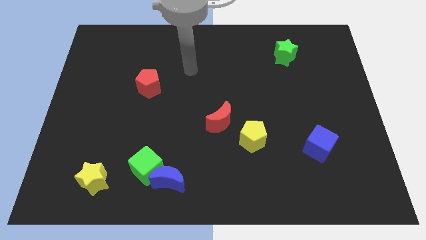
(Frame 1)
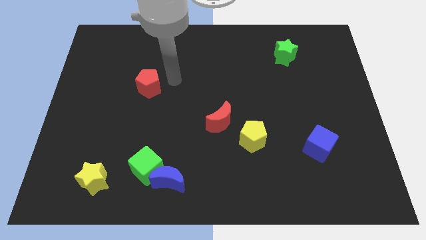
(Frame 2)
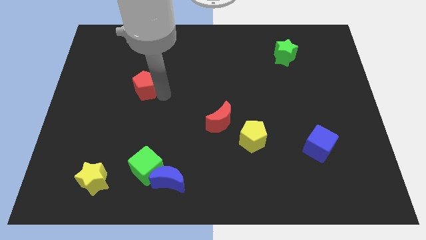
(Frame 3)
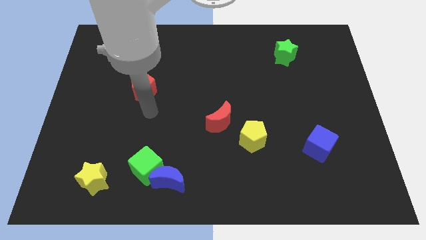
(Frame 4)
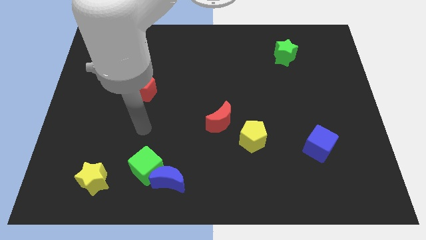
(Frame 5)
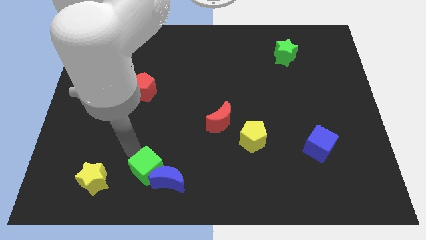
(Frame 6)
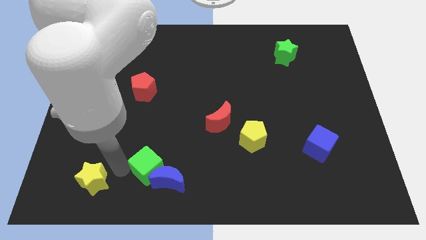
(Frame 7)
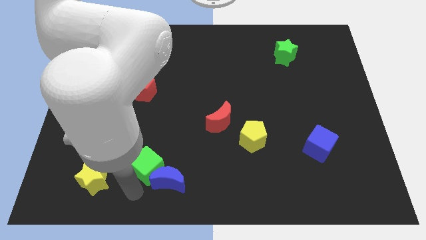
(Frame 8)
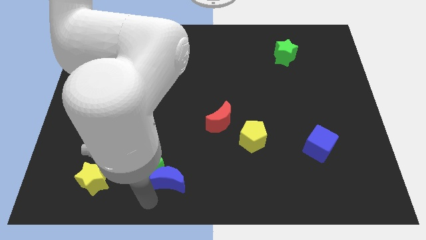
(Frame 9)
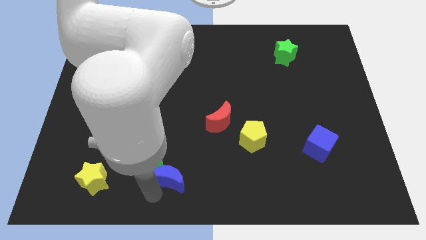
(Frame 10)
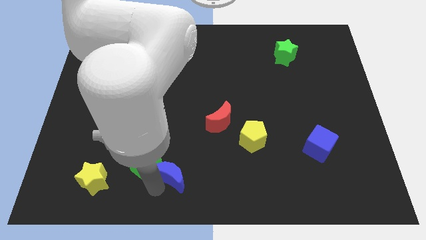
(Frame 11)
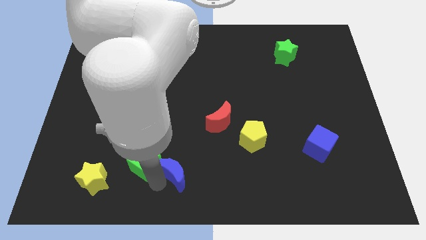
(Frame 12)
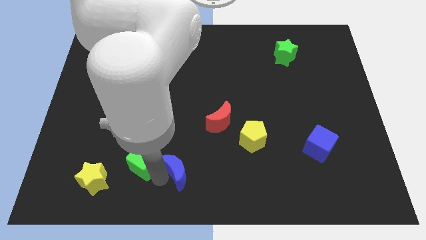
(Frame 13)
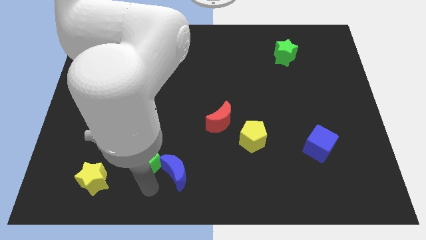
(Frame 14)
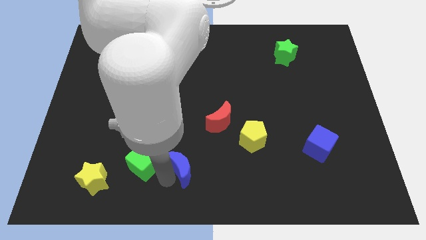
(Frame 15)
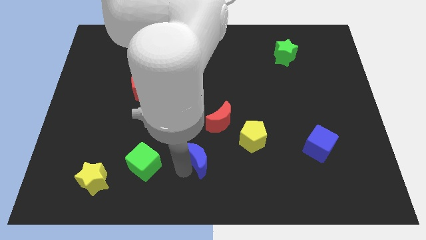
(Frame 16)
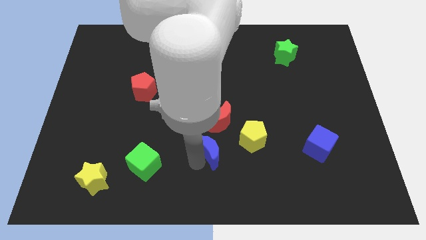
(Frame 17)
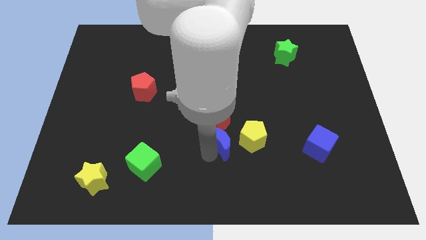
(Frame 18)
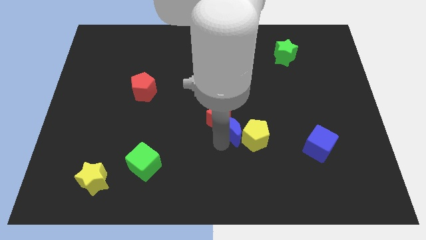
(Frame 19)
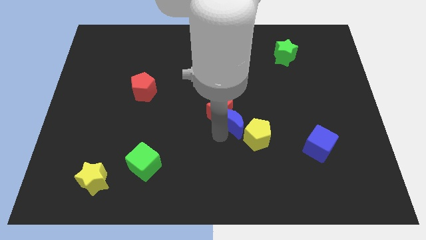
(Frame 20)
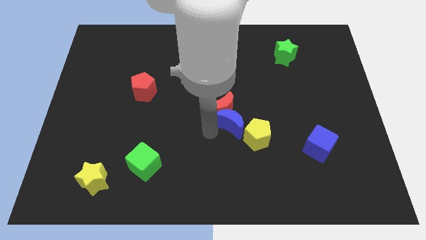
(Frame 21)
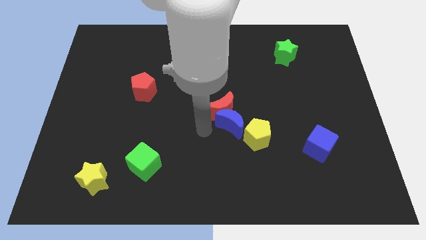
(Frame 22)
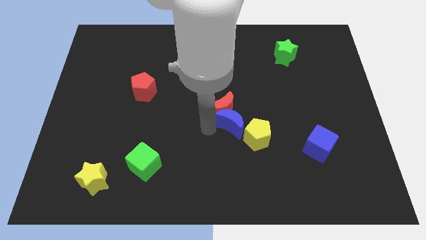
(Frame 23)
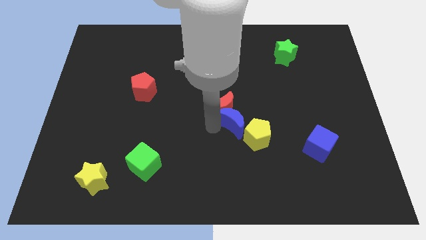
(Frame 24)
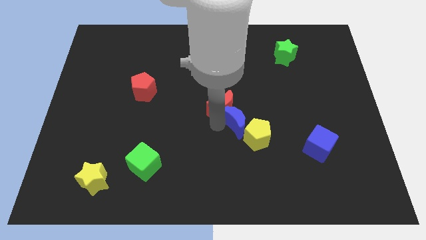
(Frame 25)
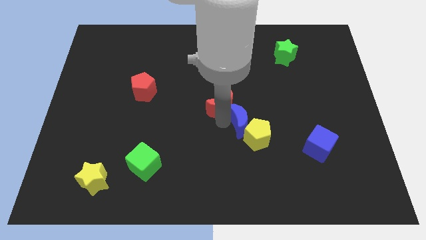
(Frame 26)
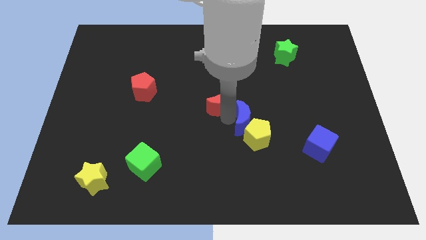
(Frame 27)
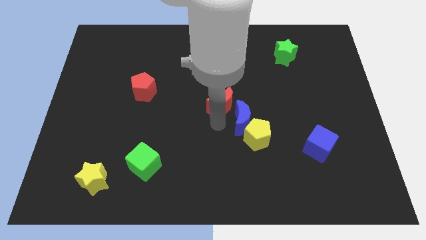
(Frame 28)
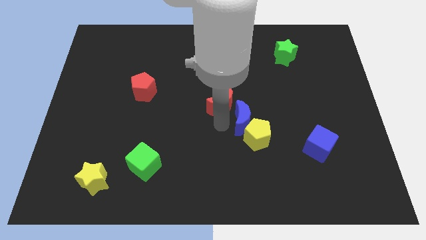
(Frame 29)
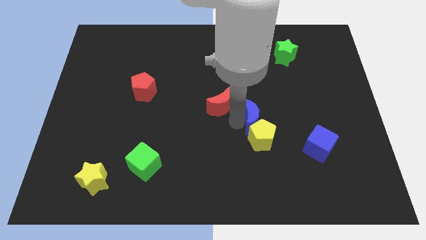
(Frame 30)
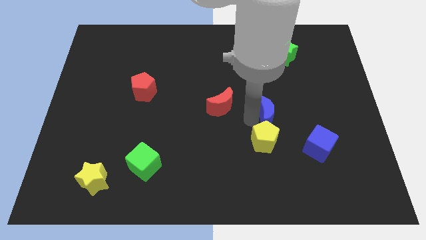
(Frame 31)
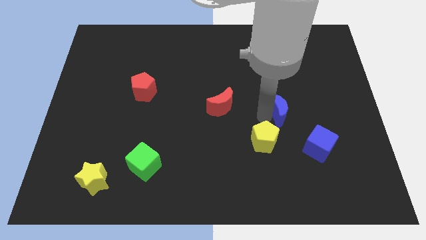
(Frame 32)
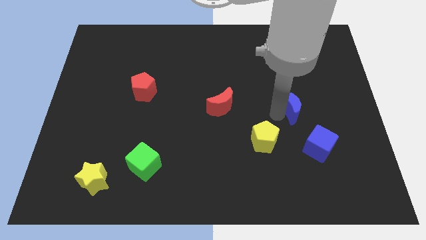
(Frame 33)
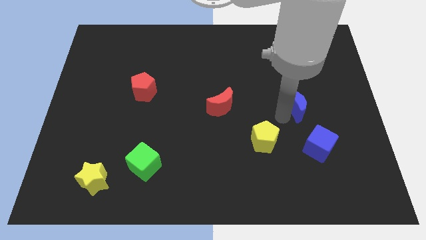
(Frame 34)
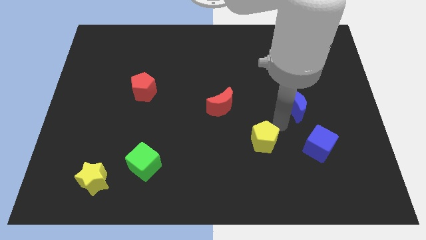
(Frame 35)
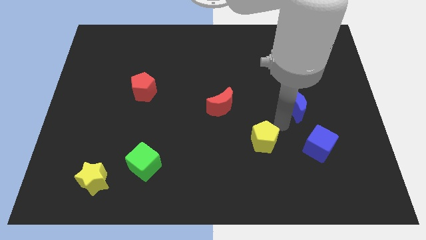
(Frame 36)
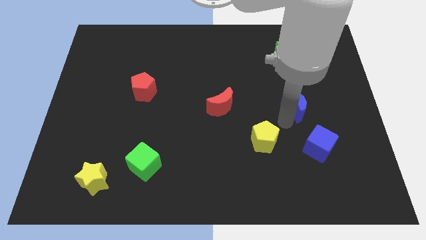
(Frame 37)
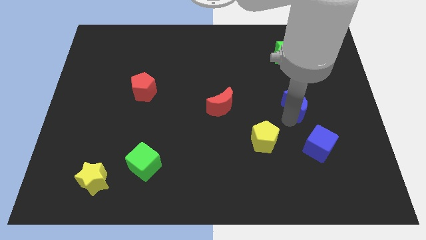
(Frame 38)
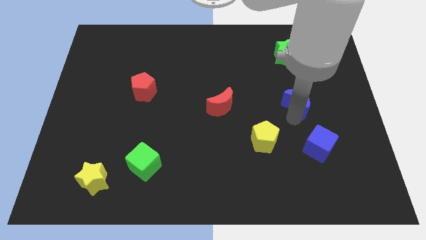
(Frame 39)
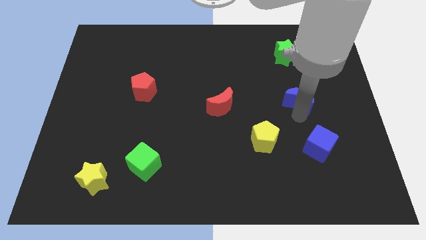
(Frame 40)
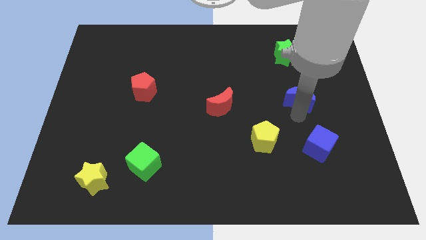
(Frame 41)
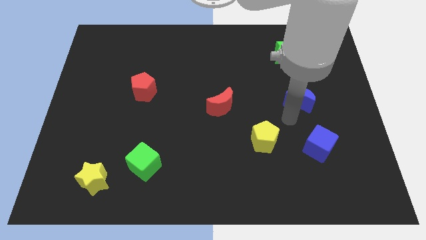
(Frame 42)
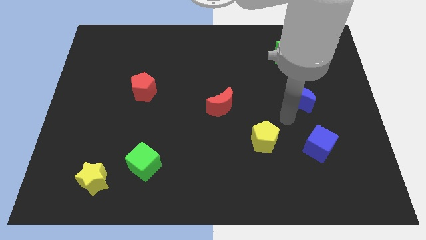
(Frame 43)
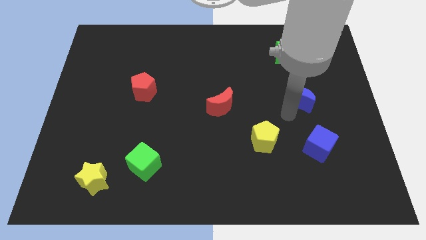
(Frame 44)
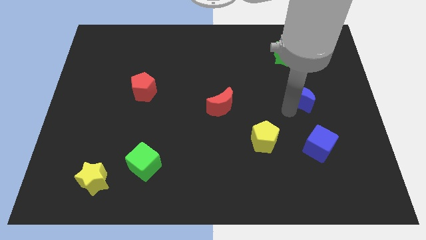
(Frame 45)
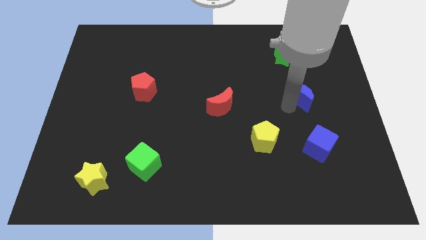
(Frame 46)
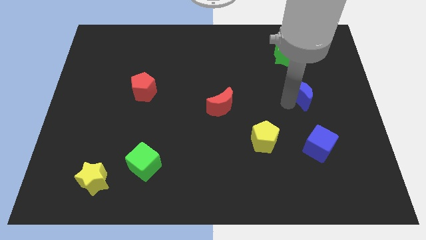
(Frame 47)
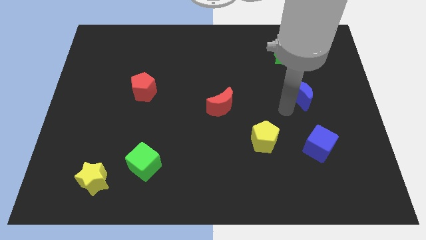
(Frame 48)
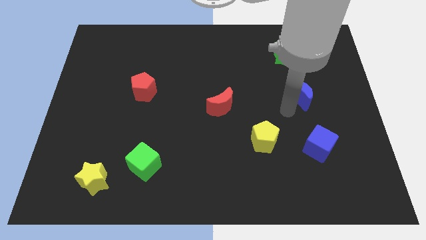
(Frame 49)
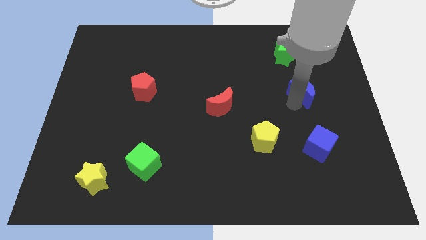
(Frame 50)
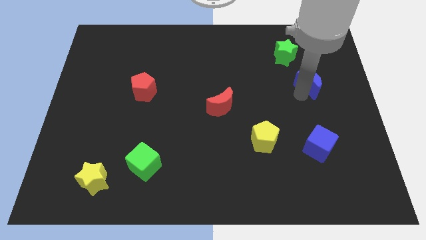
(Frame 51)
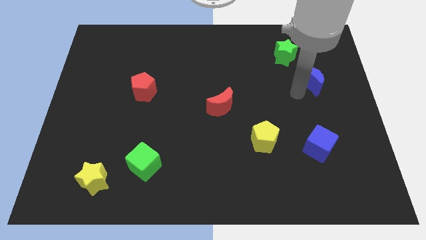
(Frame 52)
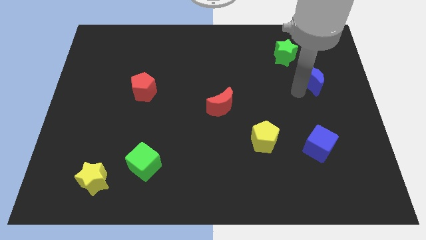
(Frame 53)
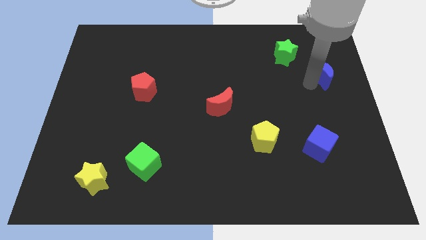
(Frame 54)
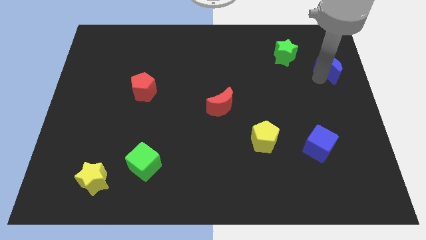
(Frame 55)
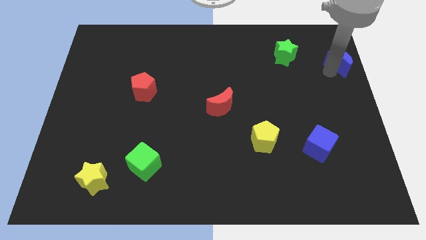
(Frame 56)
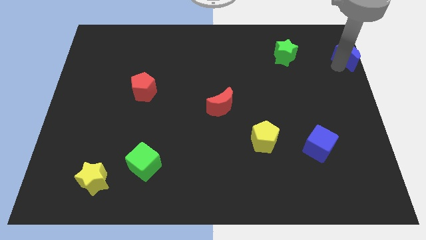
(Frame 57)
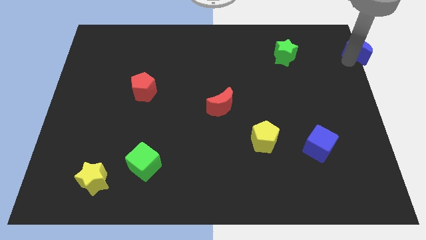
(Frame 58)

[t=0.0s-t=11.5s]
put the blue moon to the top right corner

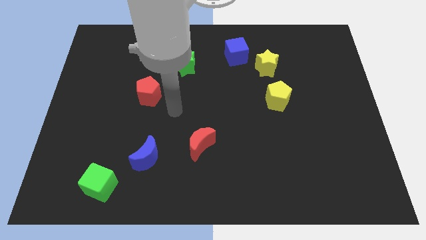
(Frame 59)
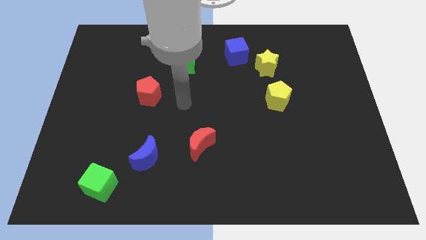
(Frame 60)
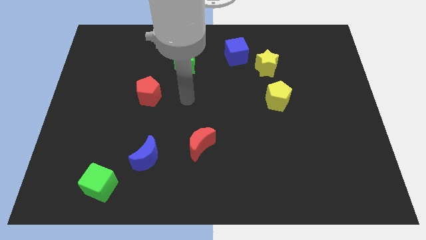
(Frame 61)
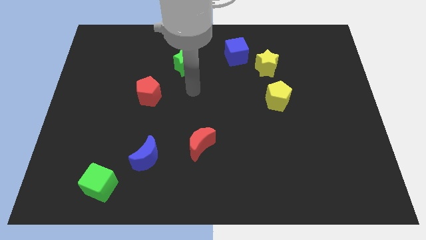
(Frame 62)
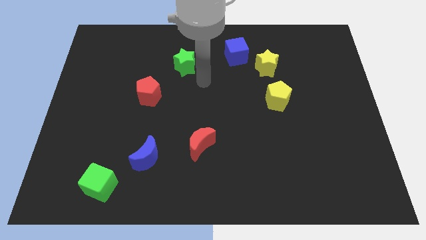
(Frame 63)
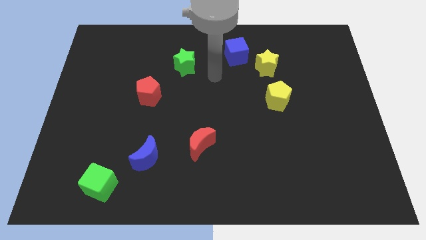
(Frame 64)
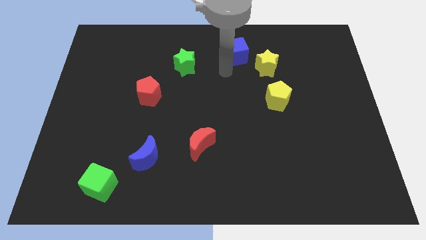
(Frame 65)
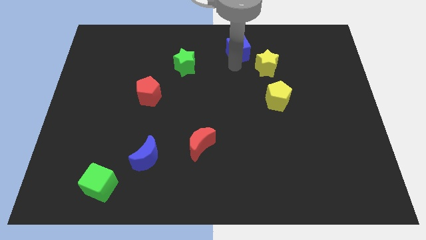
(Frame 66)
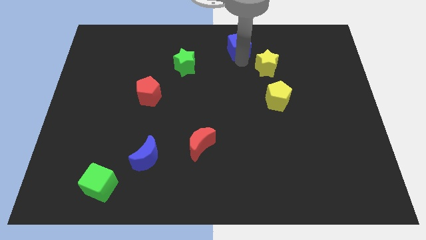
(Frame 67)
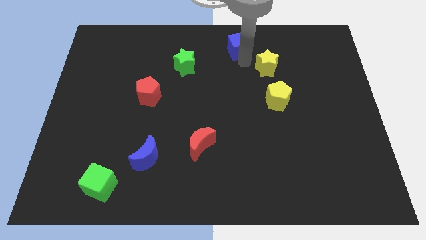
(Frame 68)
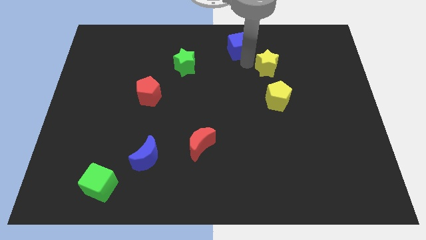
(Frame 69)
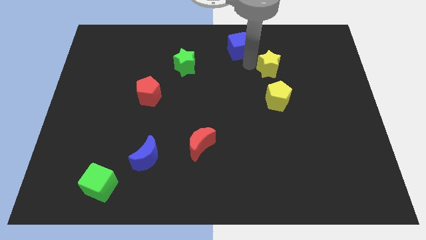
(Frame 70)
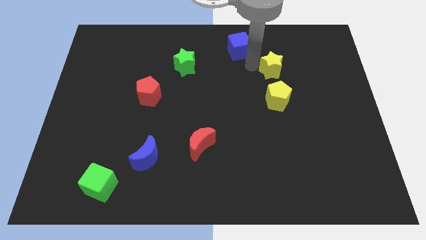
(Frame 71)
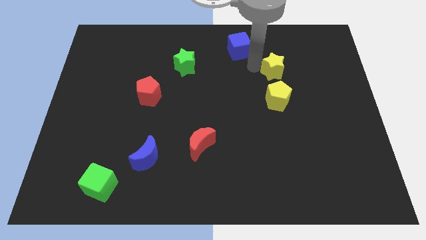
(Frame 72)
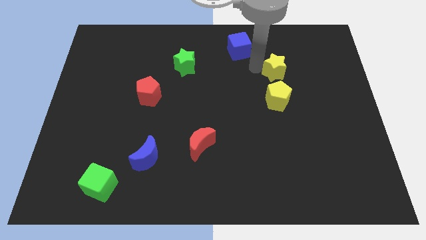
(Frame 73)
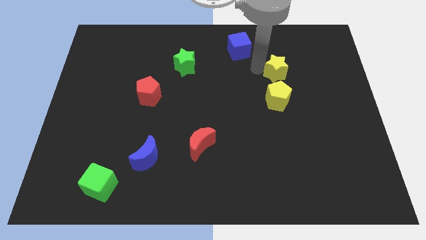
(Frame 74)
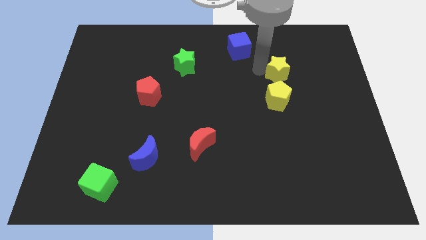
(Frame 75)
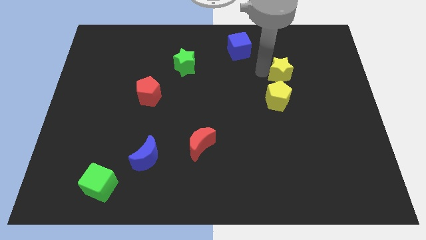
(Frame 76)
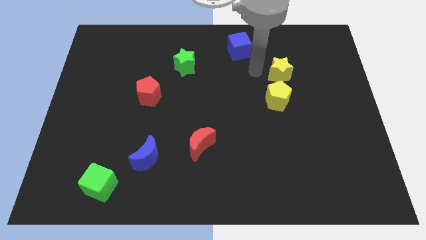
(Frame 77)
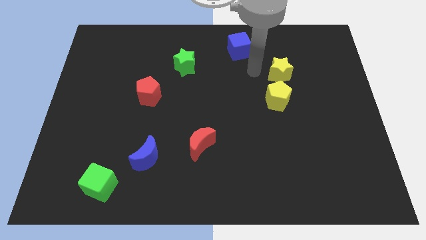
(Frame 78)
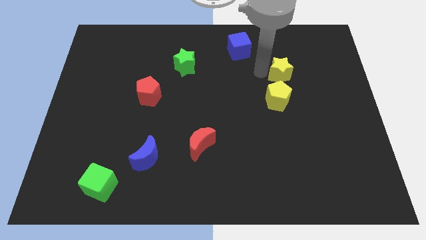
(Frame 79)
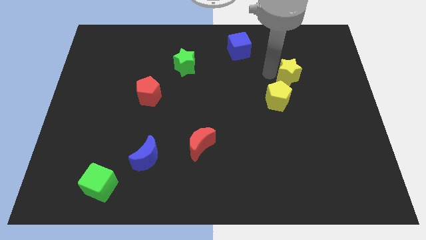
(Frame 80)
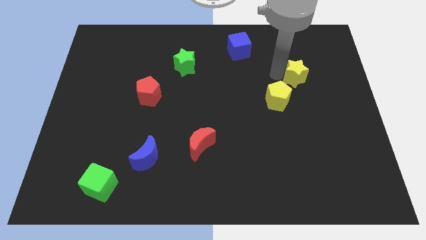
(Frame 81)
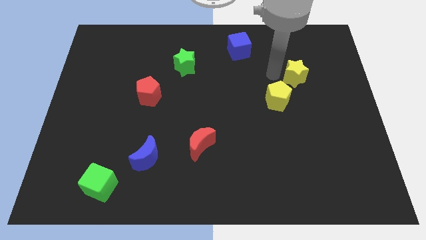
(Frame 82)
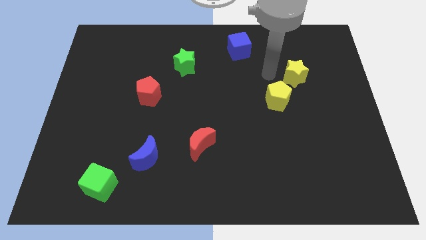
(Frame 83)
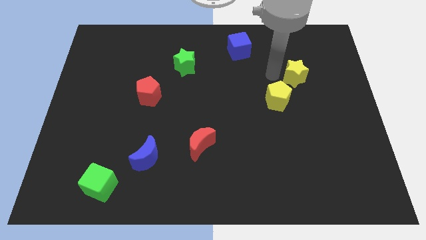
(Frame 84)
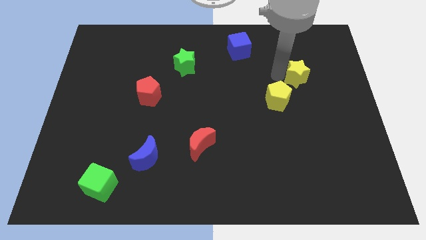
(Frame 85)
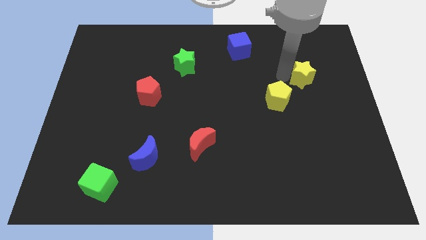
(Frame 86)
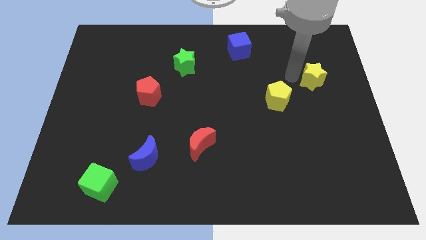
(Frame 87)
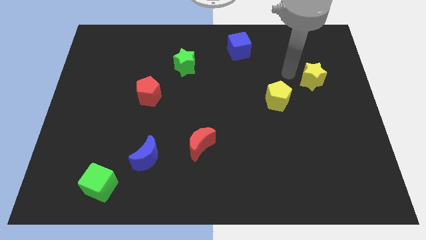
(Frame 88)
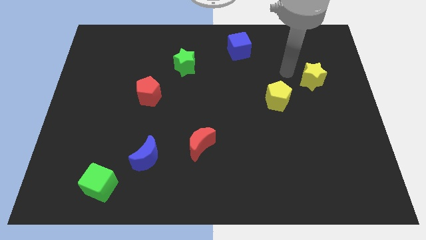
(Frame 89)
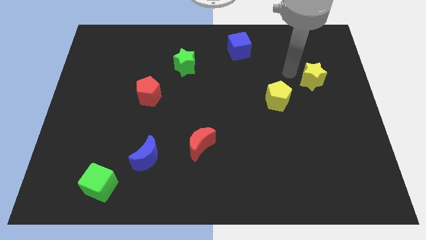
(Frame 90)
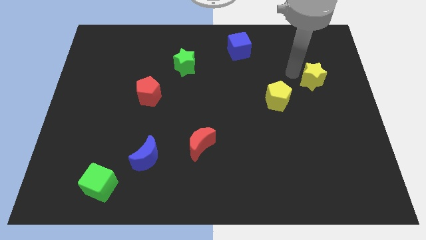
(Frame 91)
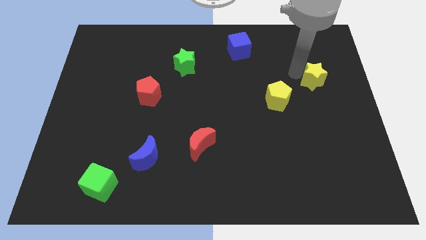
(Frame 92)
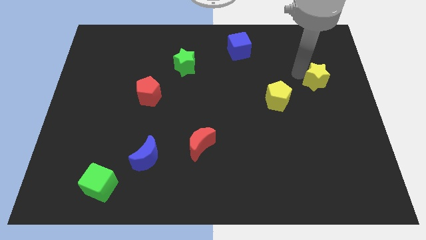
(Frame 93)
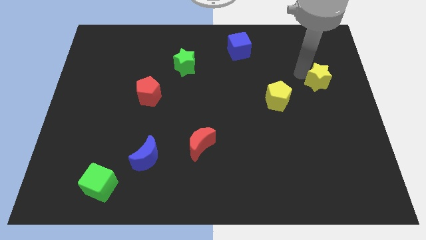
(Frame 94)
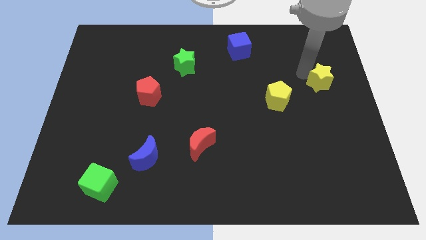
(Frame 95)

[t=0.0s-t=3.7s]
push the yellow star to the right side of the board
